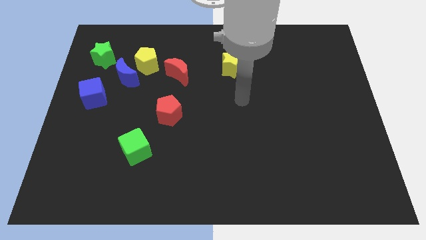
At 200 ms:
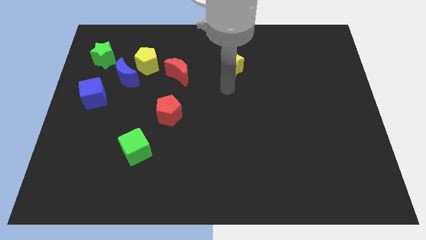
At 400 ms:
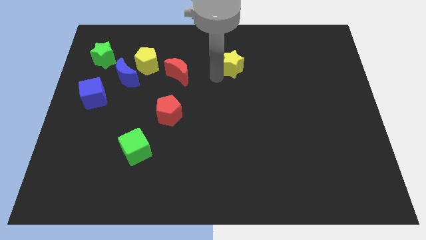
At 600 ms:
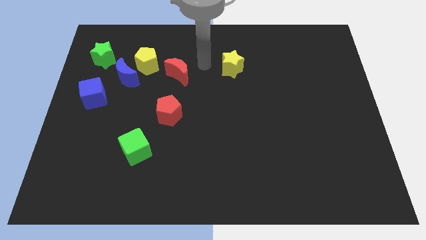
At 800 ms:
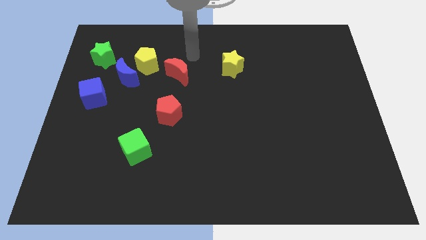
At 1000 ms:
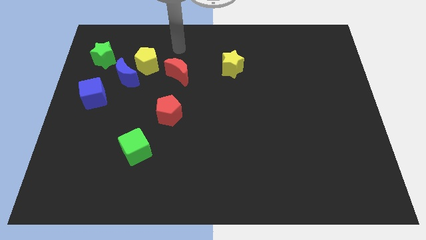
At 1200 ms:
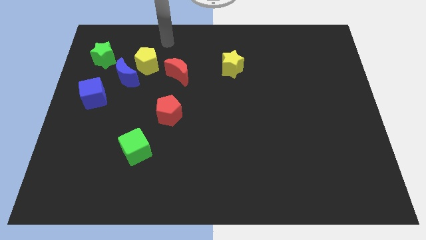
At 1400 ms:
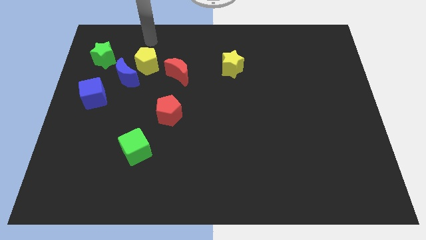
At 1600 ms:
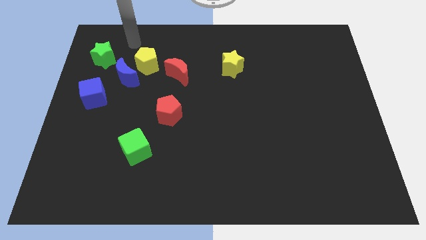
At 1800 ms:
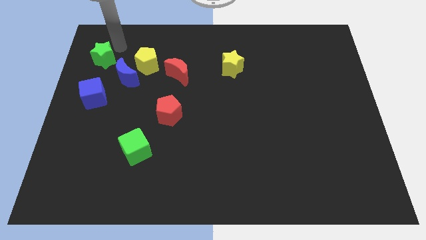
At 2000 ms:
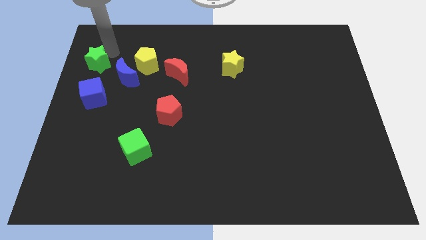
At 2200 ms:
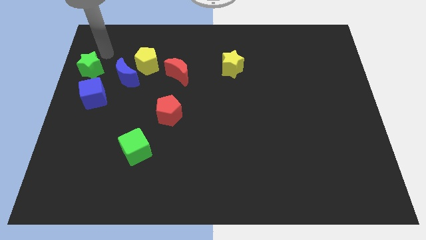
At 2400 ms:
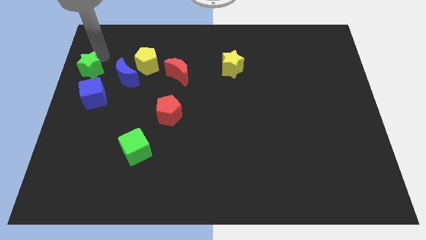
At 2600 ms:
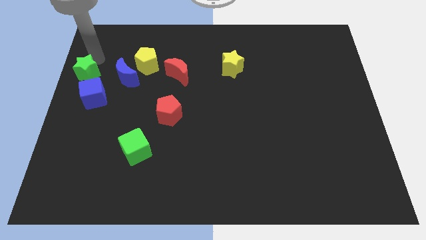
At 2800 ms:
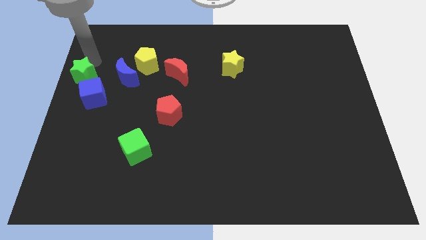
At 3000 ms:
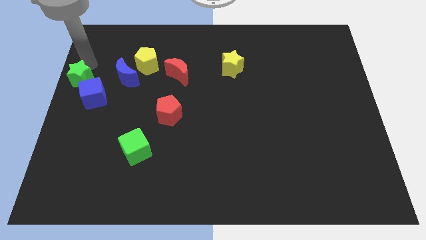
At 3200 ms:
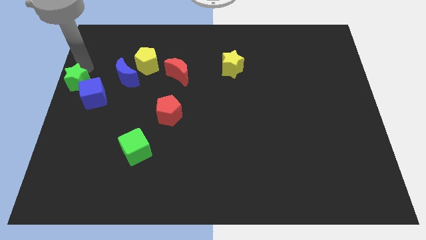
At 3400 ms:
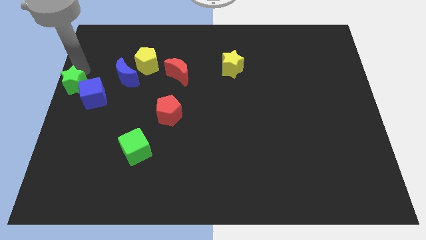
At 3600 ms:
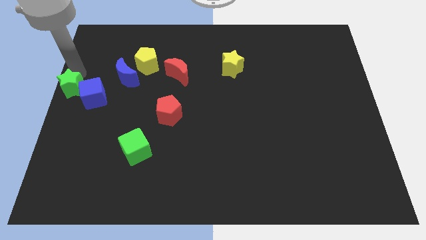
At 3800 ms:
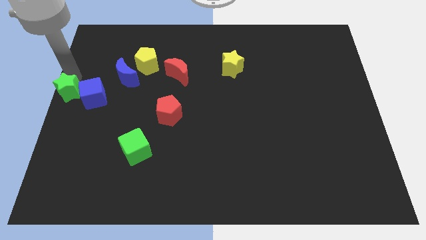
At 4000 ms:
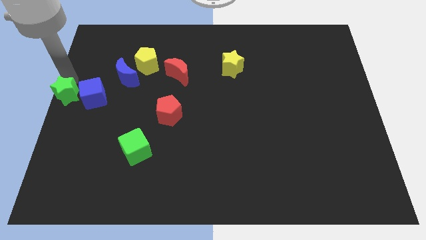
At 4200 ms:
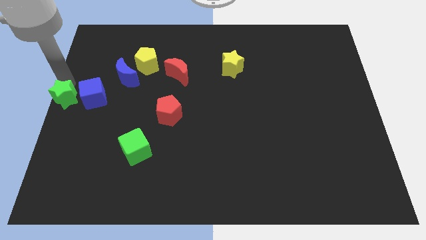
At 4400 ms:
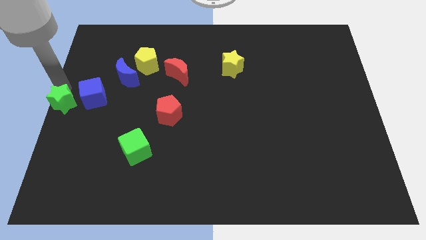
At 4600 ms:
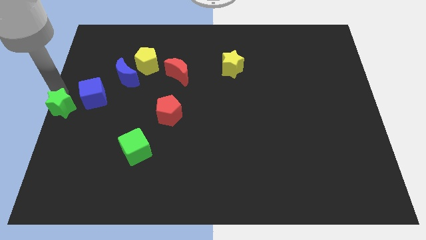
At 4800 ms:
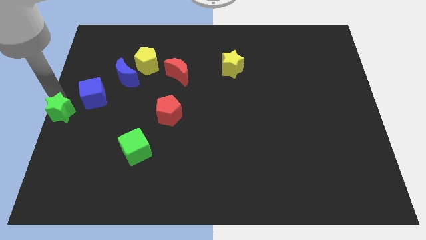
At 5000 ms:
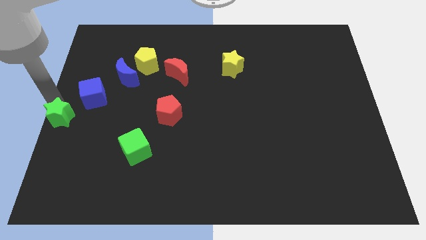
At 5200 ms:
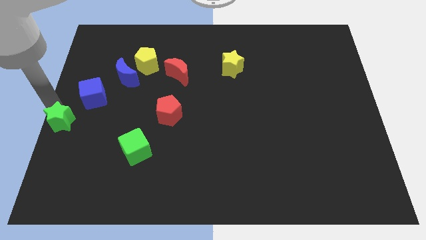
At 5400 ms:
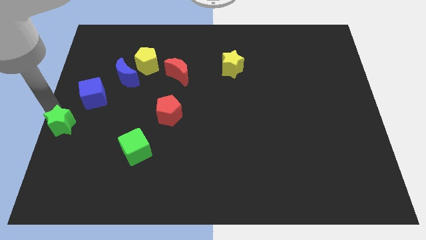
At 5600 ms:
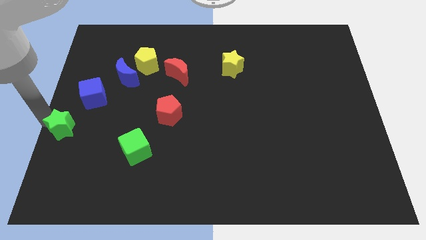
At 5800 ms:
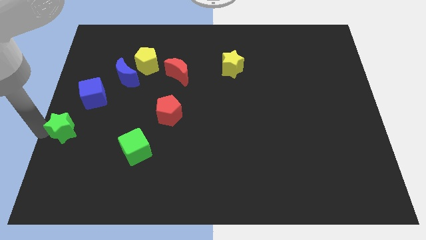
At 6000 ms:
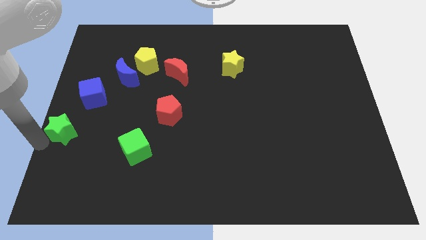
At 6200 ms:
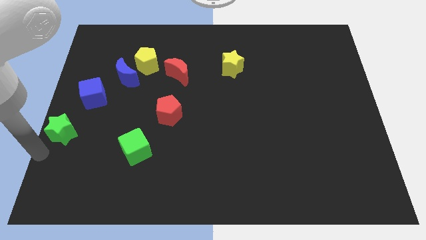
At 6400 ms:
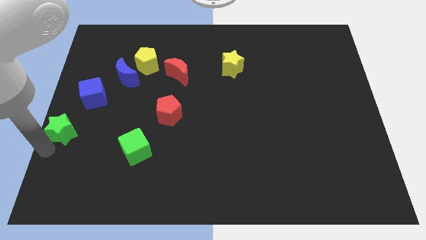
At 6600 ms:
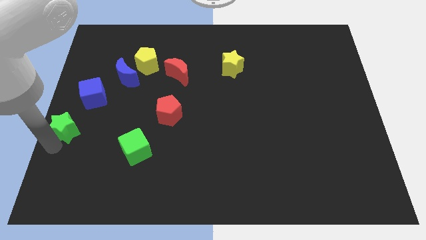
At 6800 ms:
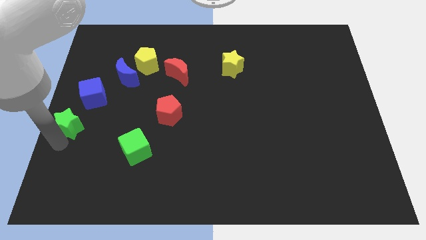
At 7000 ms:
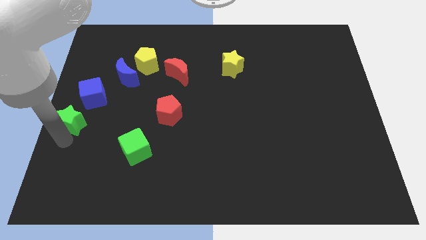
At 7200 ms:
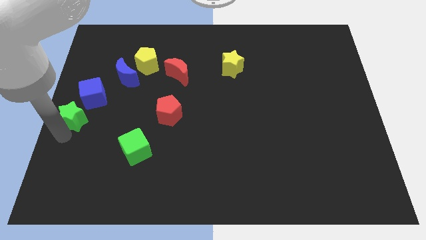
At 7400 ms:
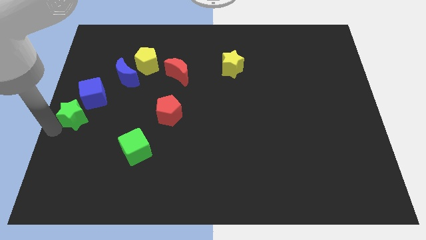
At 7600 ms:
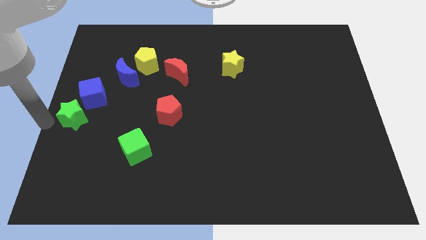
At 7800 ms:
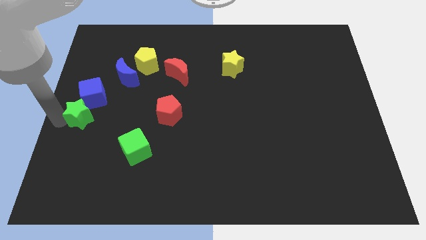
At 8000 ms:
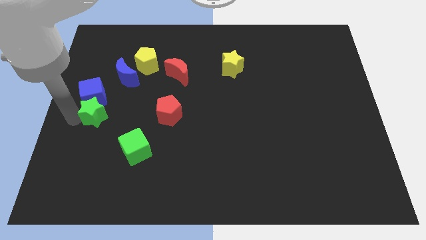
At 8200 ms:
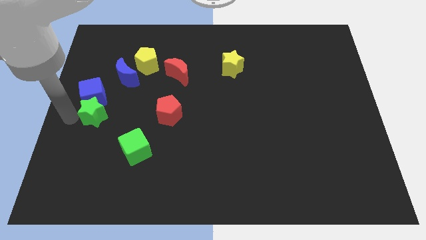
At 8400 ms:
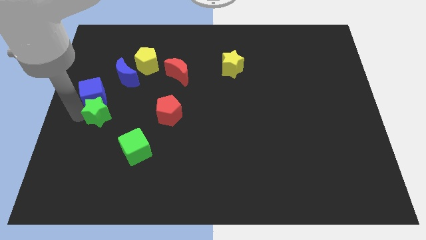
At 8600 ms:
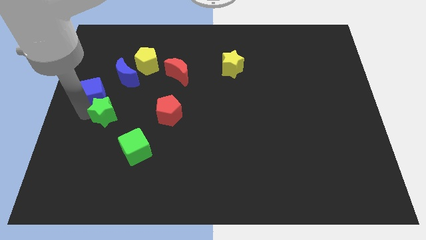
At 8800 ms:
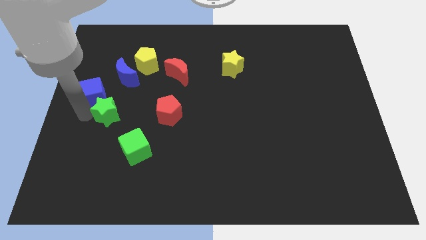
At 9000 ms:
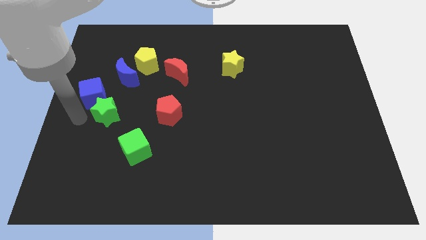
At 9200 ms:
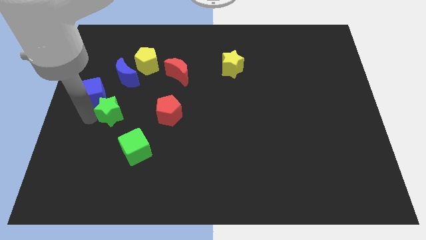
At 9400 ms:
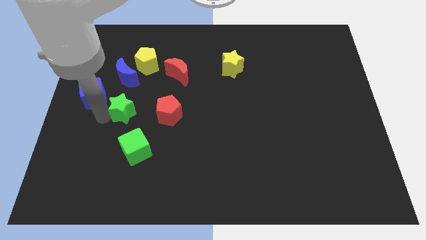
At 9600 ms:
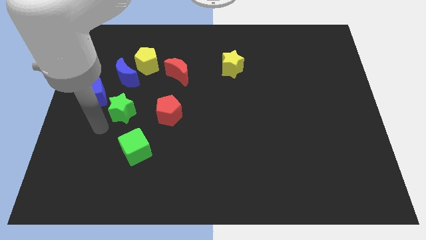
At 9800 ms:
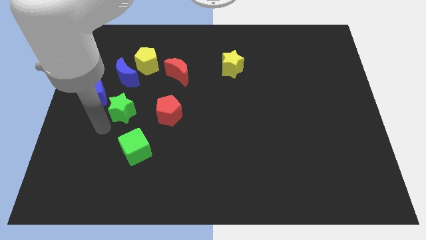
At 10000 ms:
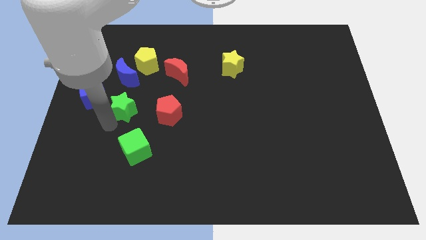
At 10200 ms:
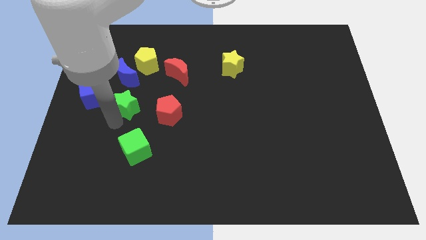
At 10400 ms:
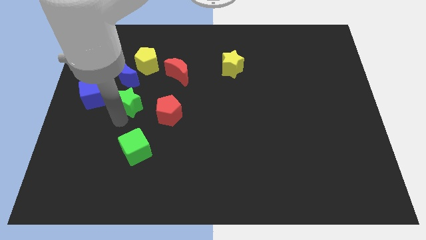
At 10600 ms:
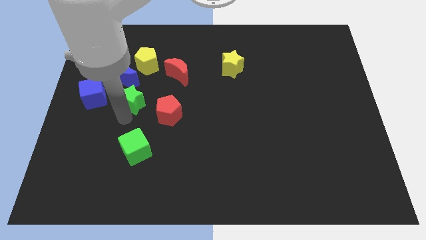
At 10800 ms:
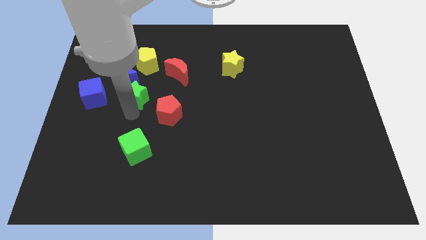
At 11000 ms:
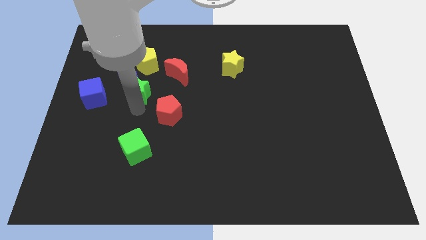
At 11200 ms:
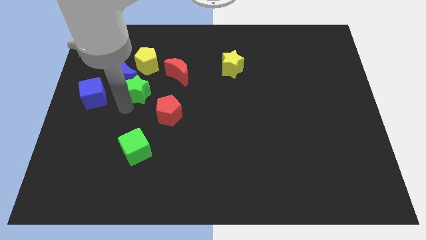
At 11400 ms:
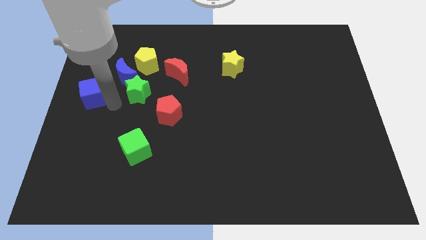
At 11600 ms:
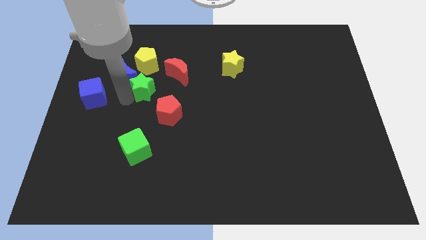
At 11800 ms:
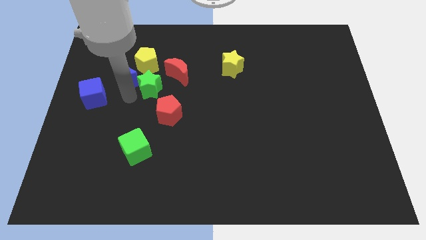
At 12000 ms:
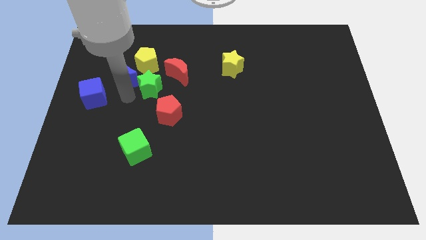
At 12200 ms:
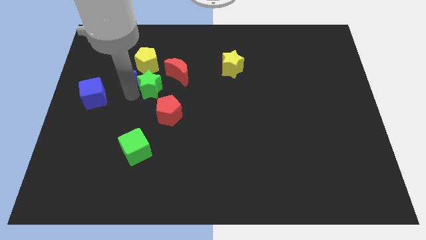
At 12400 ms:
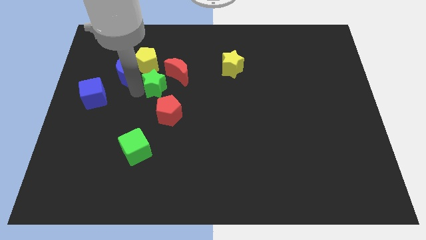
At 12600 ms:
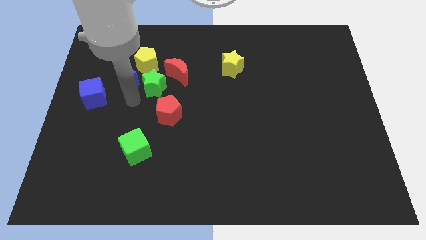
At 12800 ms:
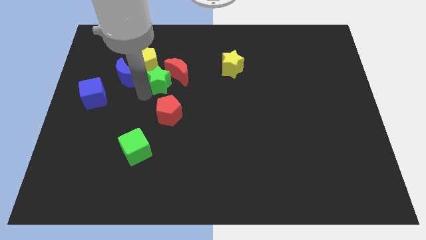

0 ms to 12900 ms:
move the green star to the red moon

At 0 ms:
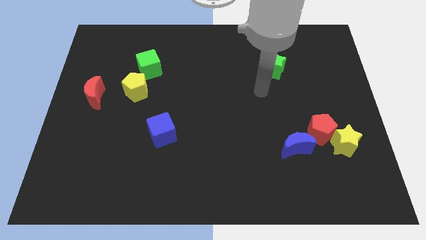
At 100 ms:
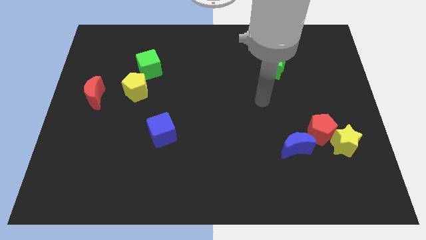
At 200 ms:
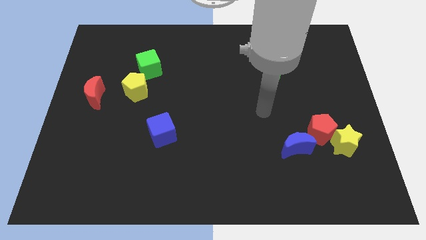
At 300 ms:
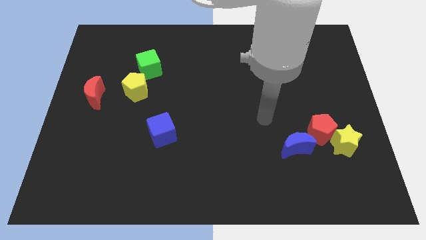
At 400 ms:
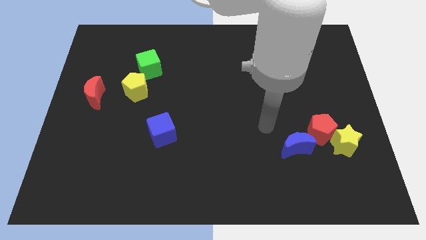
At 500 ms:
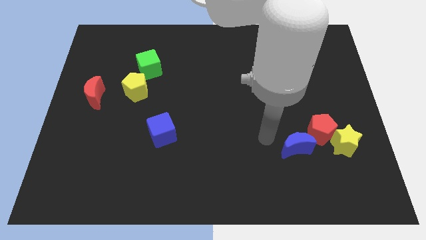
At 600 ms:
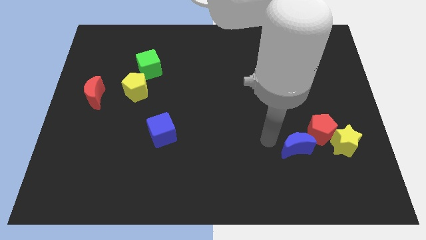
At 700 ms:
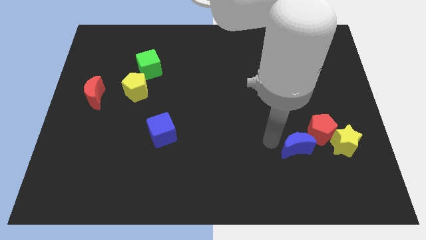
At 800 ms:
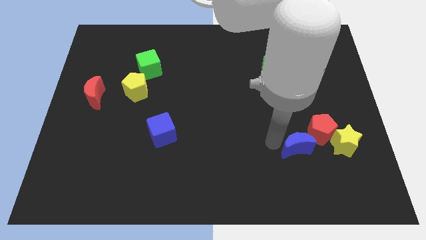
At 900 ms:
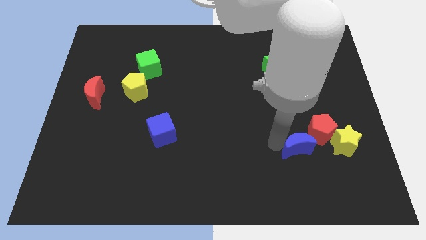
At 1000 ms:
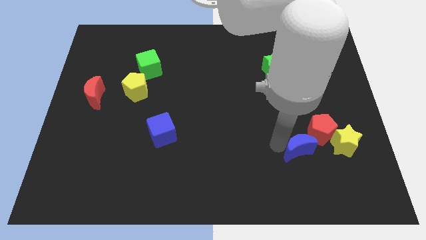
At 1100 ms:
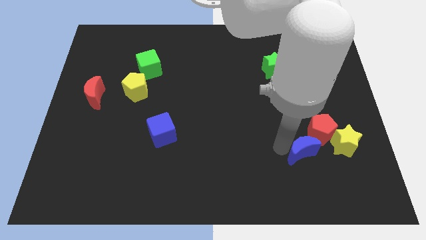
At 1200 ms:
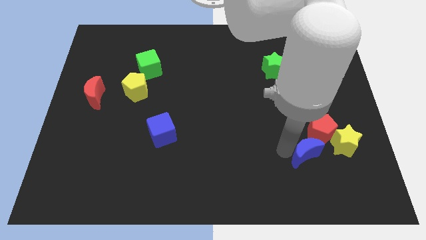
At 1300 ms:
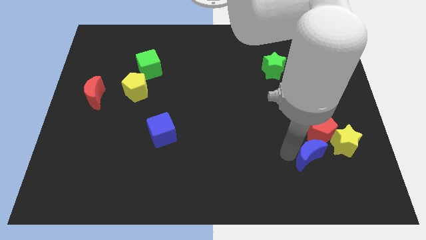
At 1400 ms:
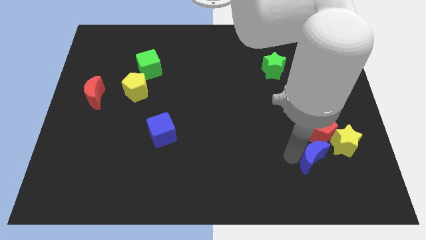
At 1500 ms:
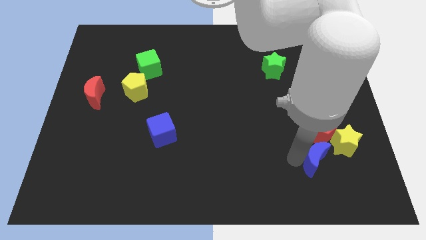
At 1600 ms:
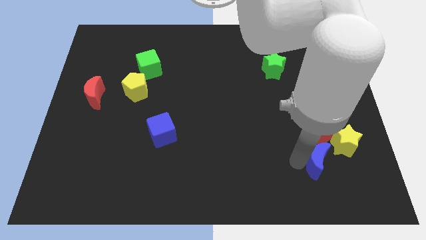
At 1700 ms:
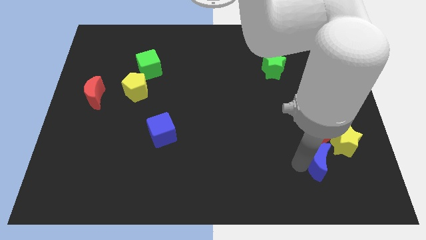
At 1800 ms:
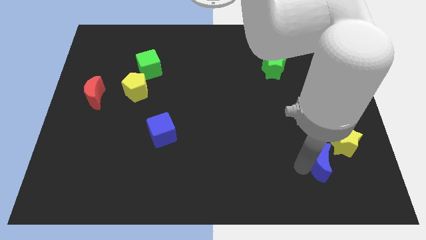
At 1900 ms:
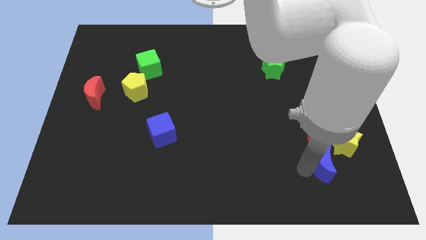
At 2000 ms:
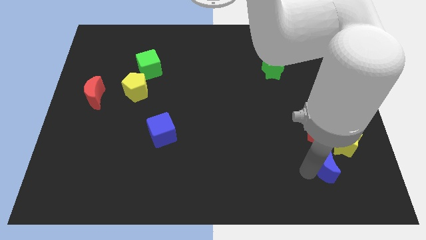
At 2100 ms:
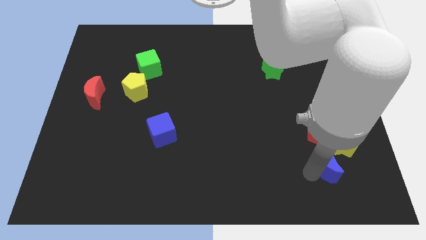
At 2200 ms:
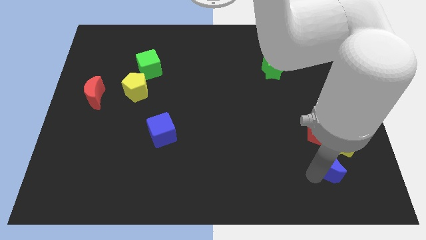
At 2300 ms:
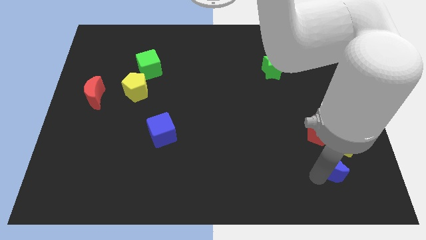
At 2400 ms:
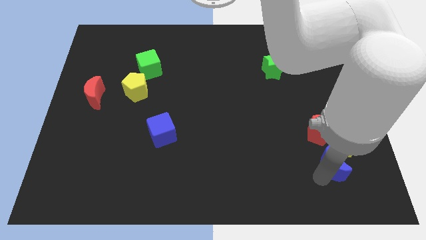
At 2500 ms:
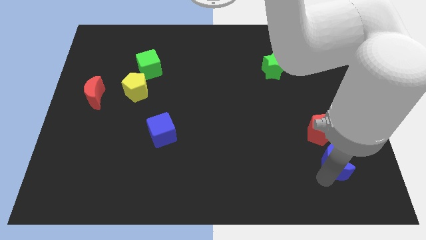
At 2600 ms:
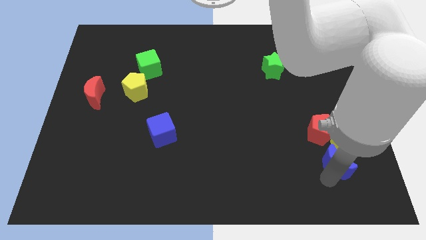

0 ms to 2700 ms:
push the blue moon next to the yellow star
